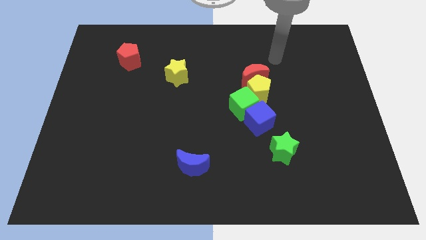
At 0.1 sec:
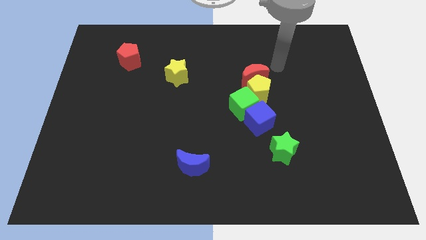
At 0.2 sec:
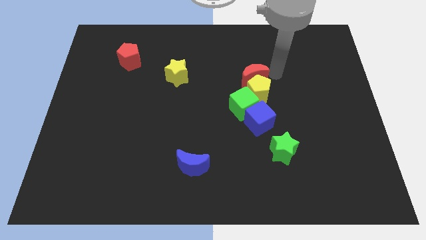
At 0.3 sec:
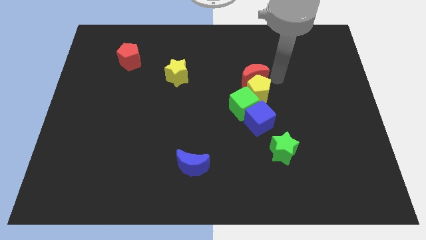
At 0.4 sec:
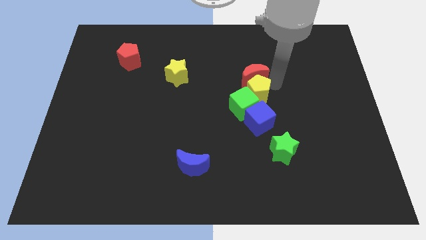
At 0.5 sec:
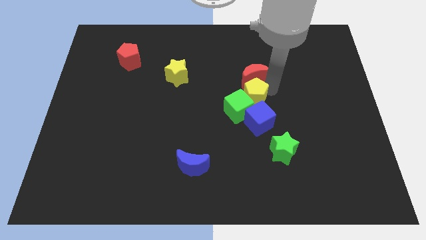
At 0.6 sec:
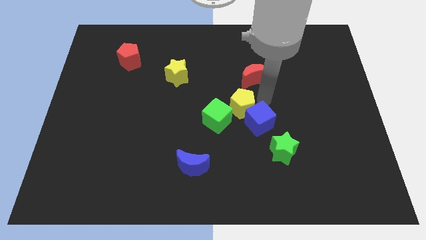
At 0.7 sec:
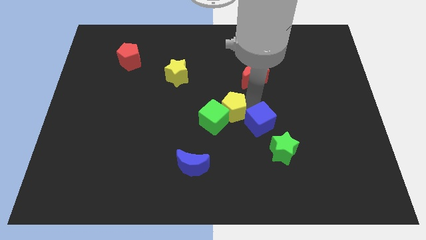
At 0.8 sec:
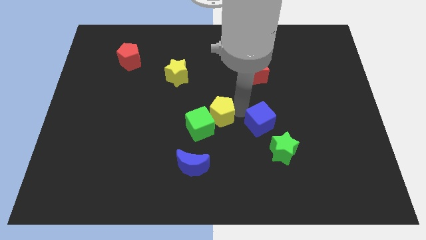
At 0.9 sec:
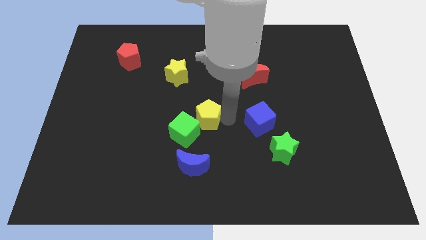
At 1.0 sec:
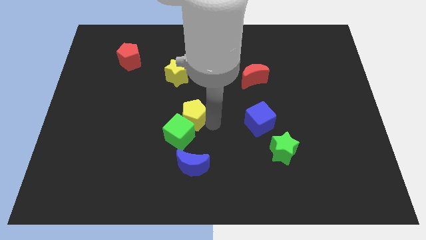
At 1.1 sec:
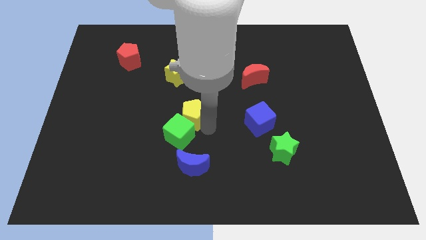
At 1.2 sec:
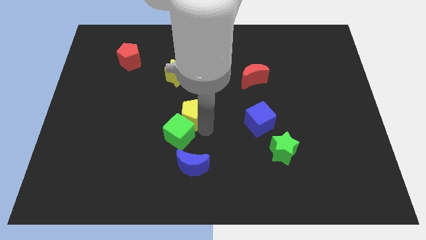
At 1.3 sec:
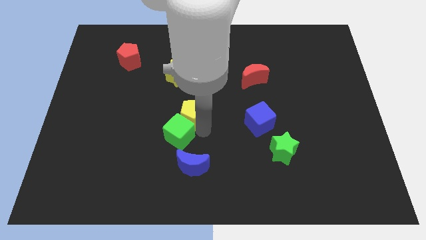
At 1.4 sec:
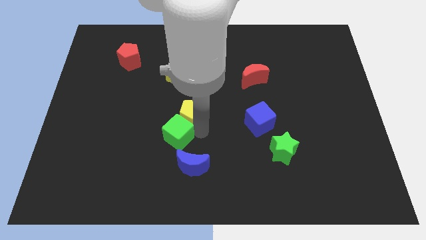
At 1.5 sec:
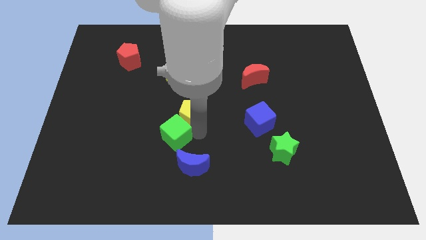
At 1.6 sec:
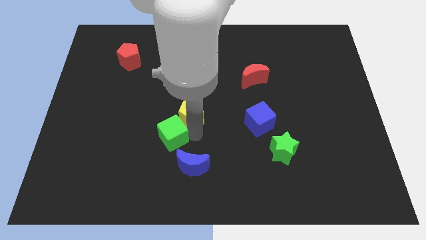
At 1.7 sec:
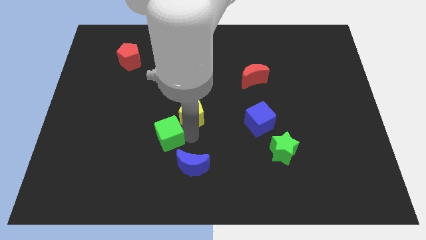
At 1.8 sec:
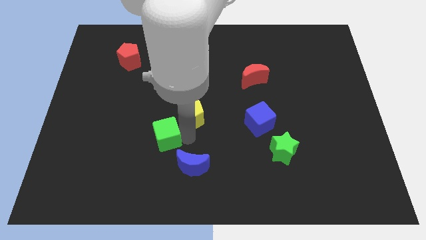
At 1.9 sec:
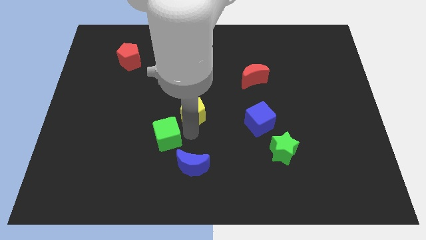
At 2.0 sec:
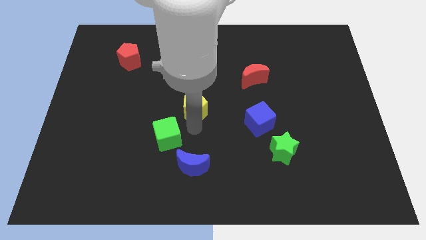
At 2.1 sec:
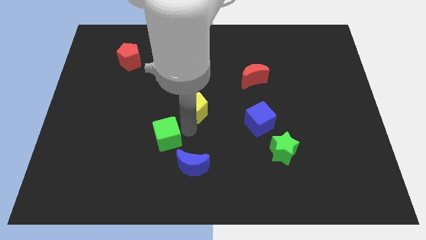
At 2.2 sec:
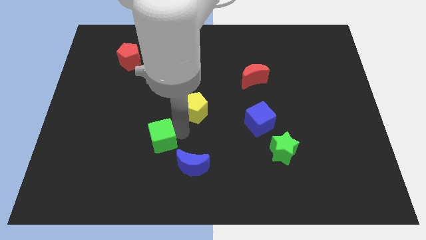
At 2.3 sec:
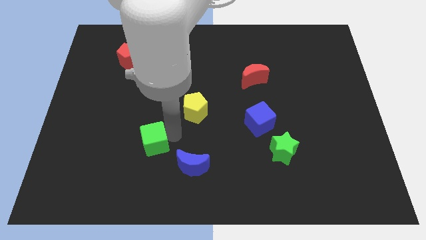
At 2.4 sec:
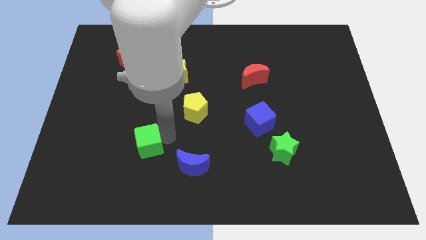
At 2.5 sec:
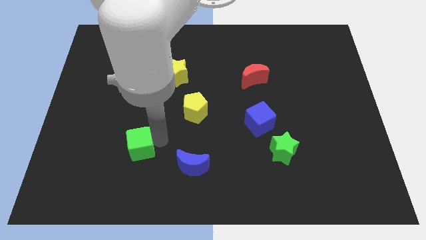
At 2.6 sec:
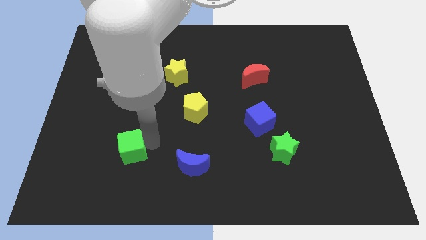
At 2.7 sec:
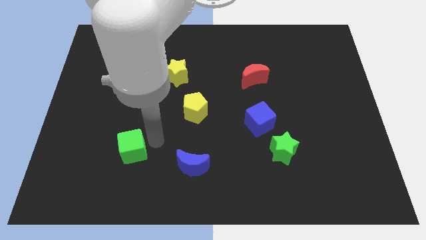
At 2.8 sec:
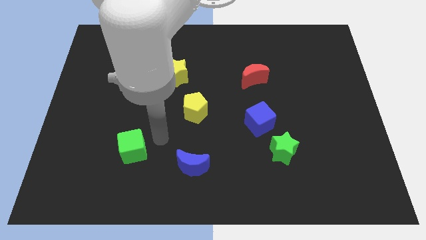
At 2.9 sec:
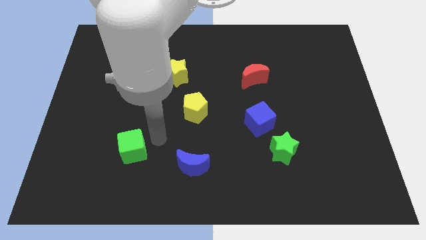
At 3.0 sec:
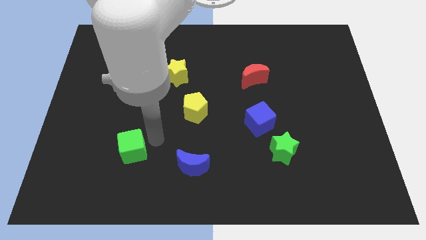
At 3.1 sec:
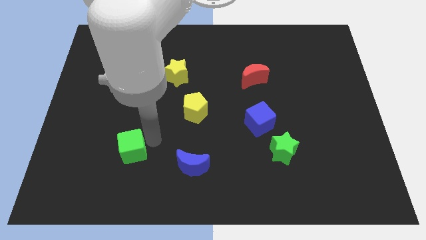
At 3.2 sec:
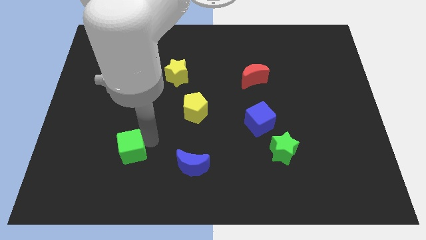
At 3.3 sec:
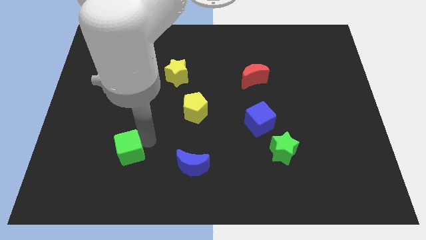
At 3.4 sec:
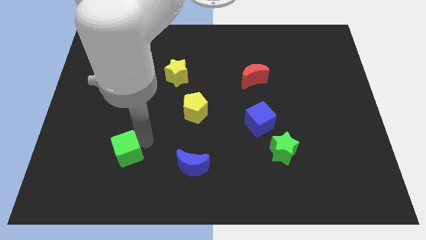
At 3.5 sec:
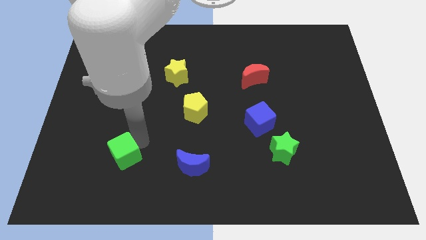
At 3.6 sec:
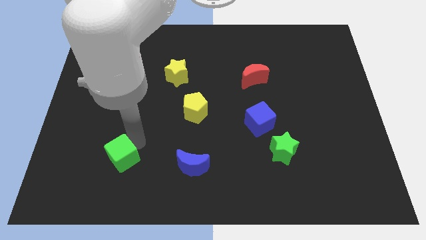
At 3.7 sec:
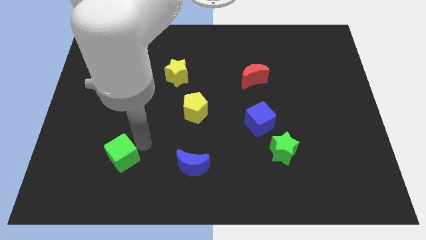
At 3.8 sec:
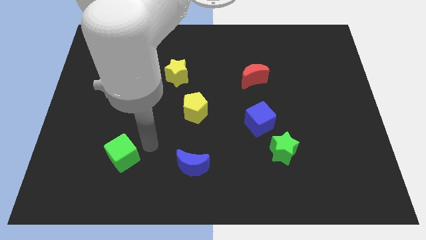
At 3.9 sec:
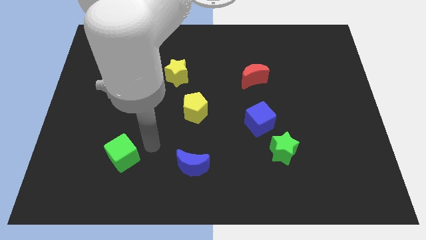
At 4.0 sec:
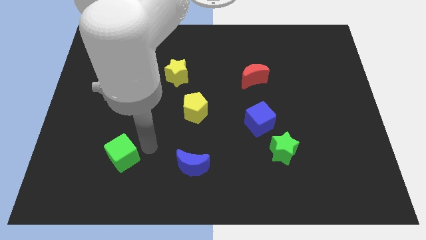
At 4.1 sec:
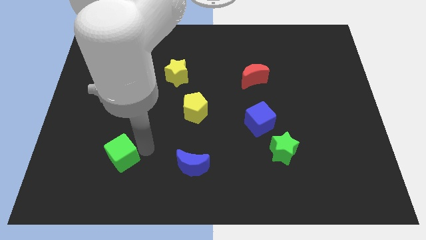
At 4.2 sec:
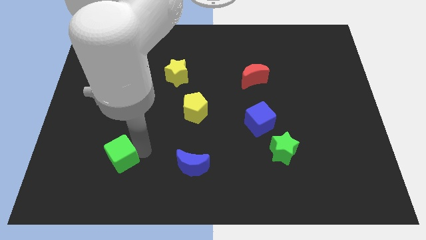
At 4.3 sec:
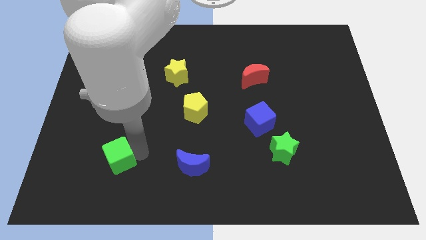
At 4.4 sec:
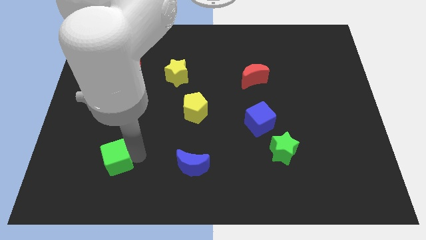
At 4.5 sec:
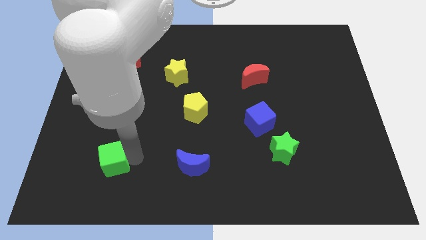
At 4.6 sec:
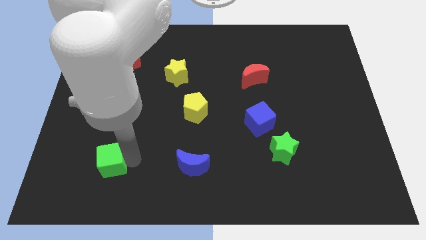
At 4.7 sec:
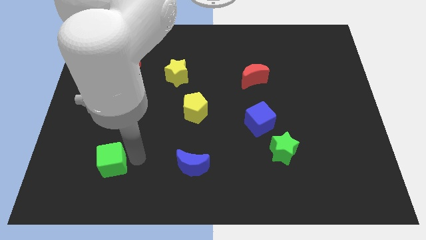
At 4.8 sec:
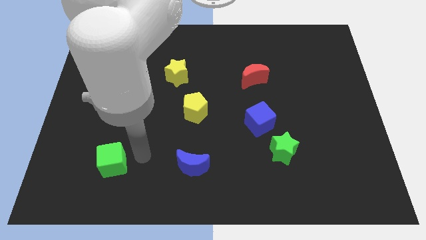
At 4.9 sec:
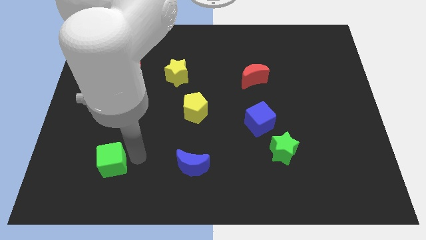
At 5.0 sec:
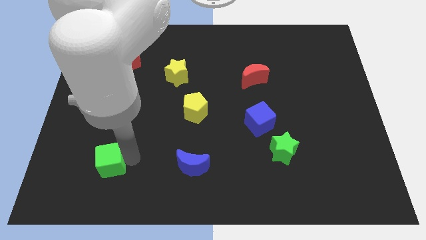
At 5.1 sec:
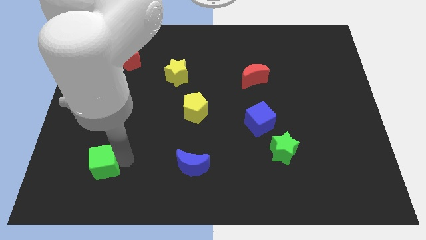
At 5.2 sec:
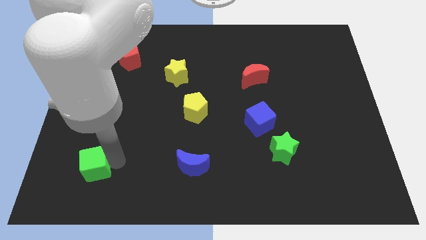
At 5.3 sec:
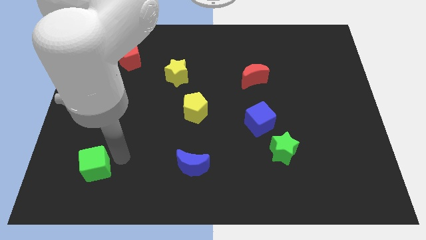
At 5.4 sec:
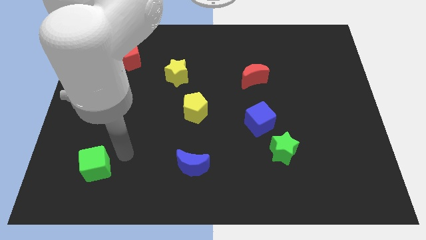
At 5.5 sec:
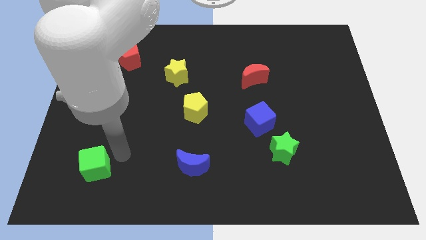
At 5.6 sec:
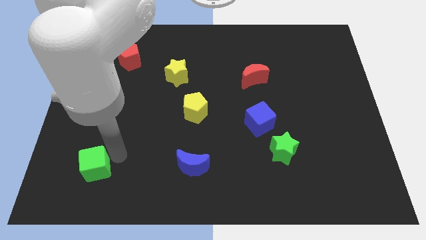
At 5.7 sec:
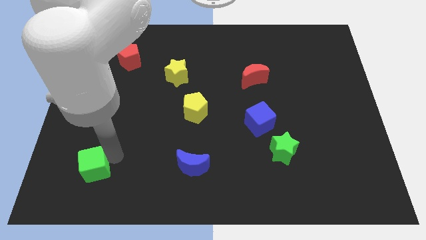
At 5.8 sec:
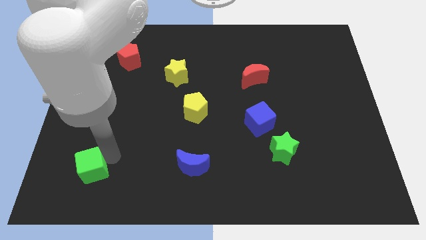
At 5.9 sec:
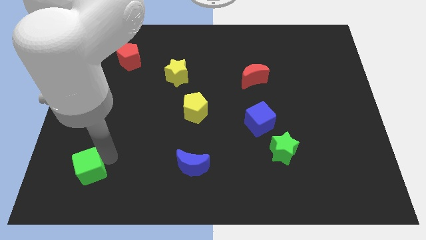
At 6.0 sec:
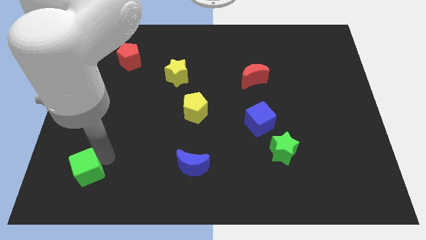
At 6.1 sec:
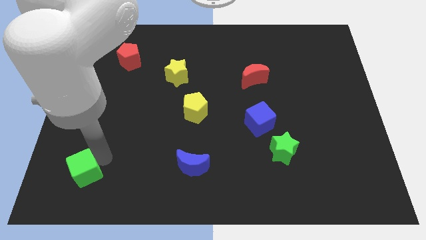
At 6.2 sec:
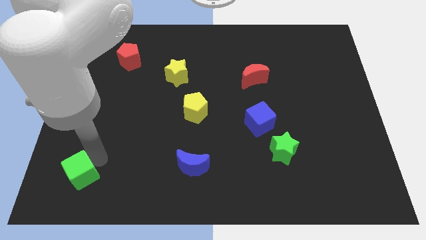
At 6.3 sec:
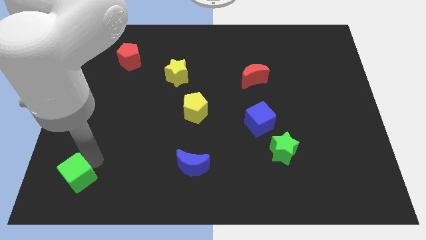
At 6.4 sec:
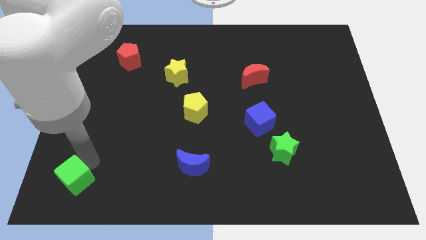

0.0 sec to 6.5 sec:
push the green cube to the bottom left of the board
